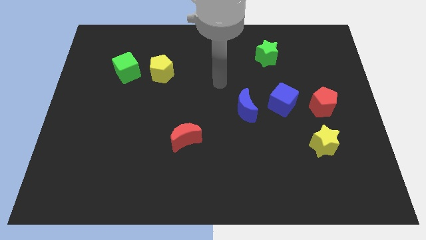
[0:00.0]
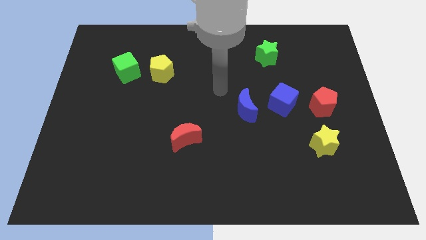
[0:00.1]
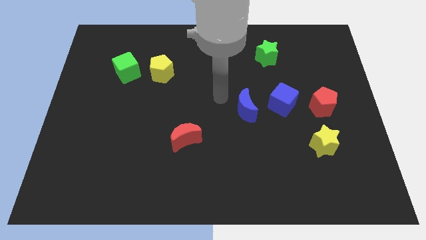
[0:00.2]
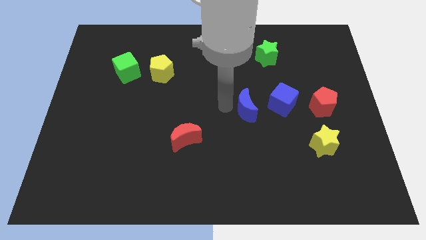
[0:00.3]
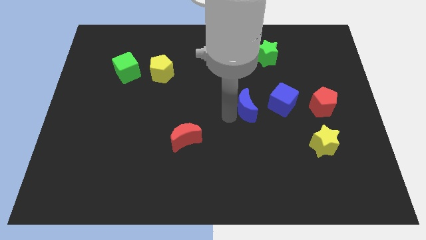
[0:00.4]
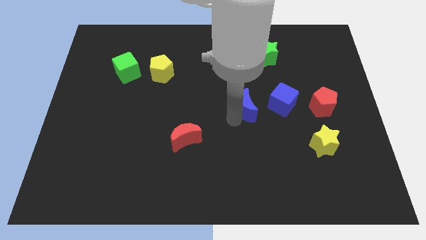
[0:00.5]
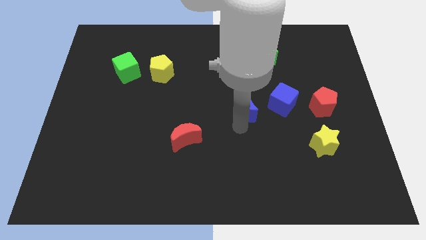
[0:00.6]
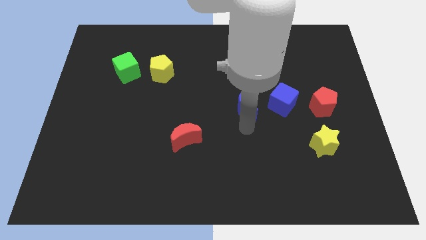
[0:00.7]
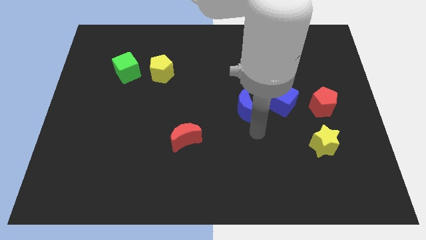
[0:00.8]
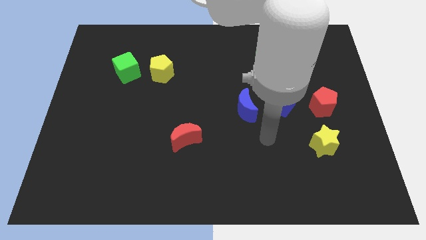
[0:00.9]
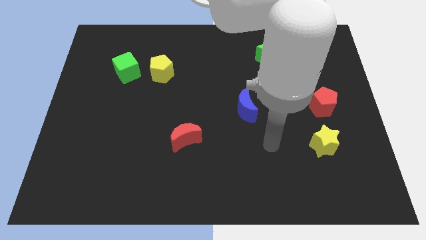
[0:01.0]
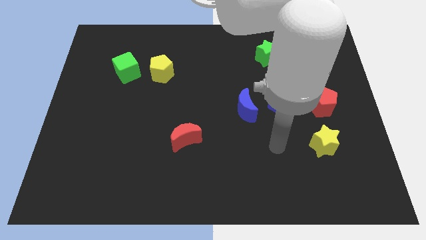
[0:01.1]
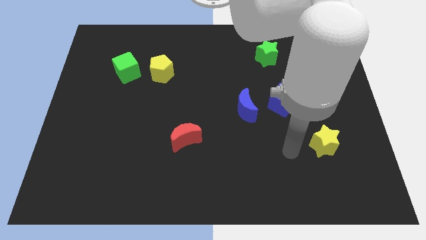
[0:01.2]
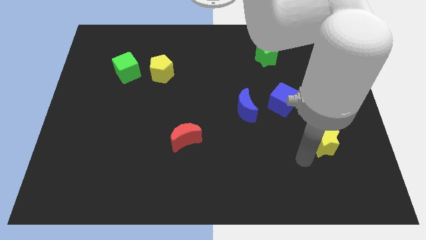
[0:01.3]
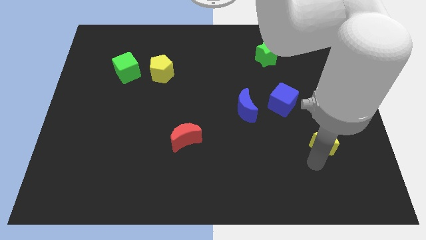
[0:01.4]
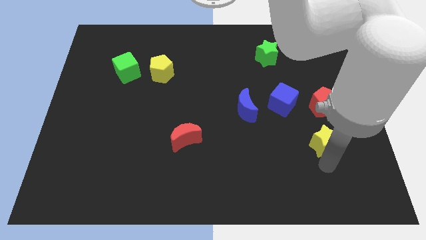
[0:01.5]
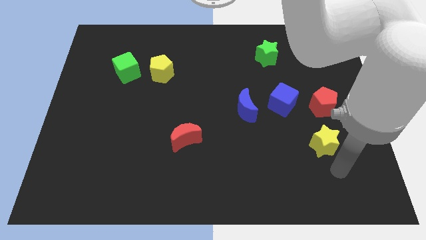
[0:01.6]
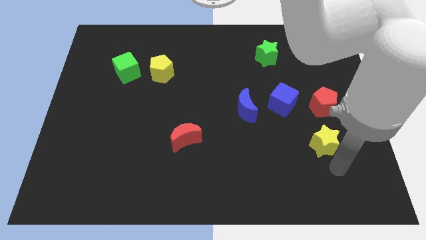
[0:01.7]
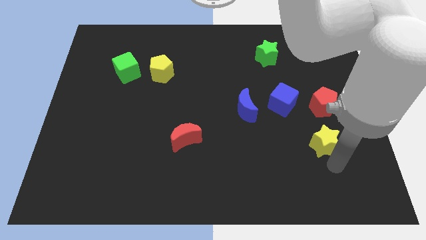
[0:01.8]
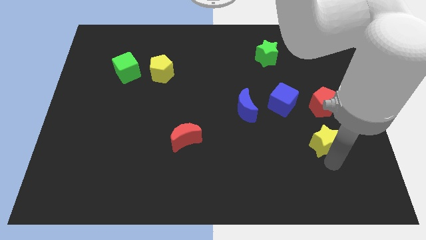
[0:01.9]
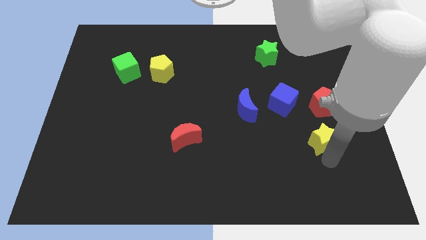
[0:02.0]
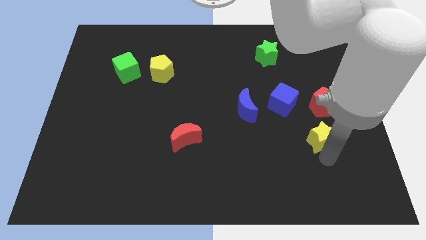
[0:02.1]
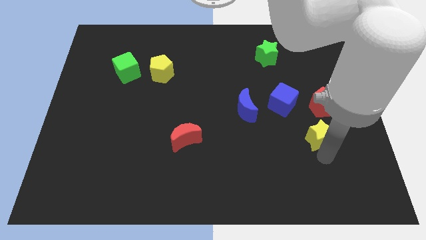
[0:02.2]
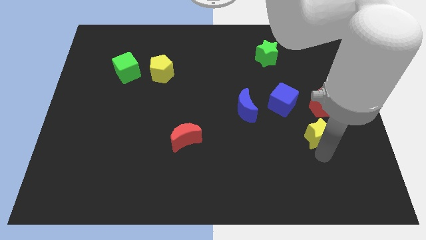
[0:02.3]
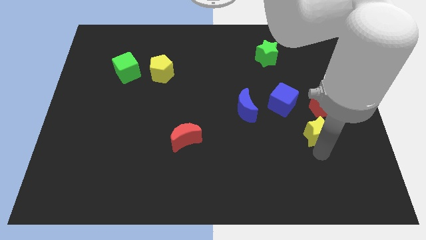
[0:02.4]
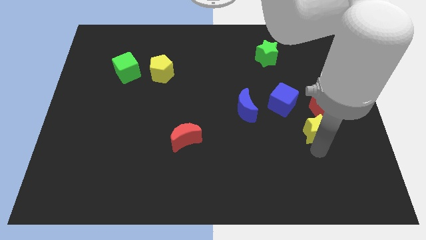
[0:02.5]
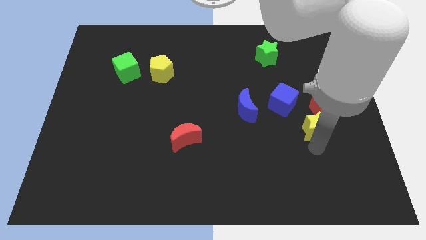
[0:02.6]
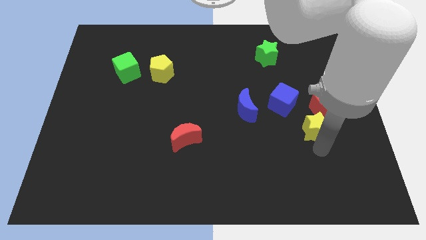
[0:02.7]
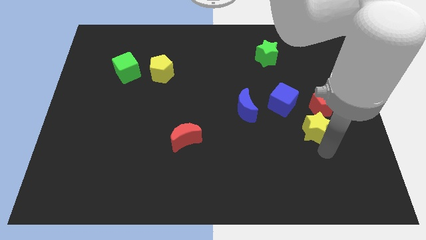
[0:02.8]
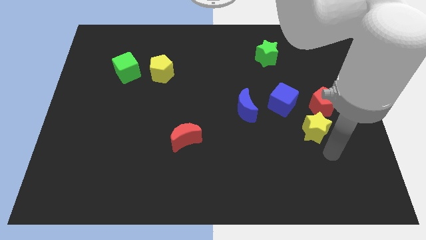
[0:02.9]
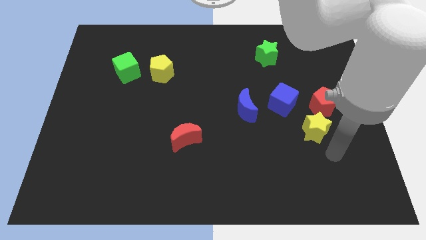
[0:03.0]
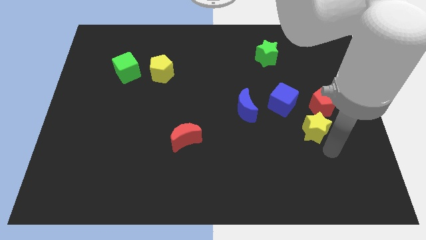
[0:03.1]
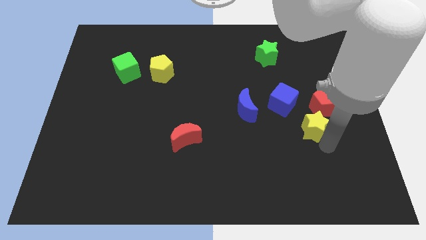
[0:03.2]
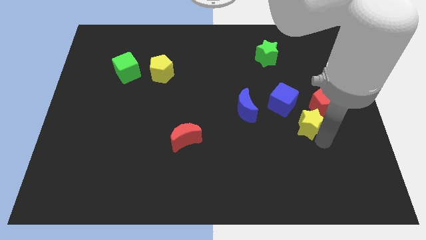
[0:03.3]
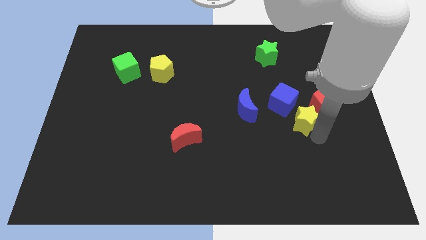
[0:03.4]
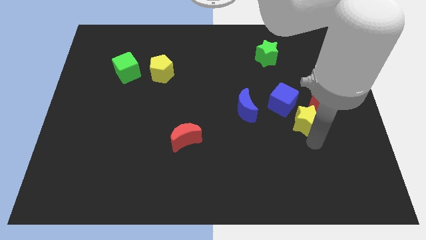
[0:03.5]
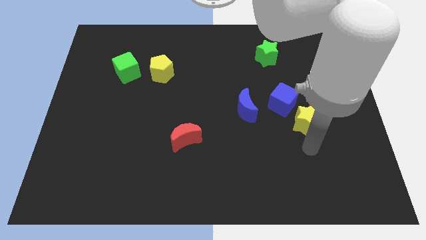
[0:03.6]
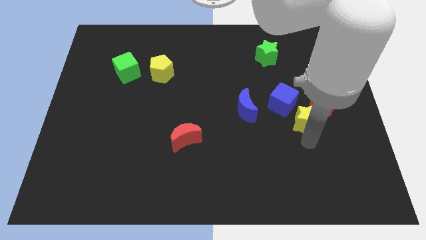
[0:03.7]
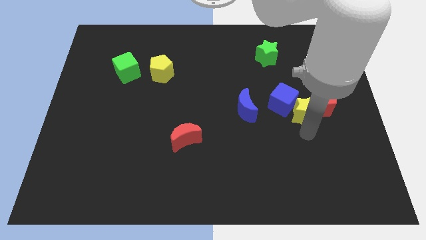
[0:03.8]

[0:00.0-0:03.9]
move the yellow star a little bit up

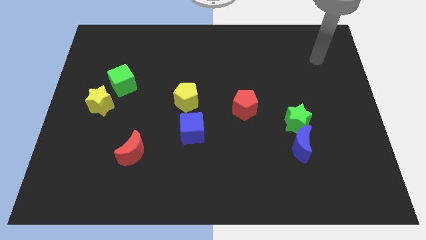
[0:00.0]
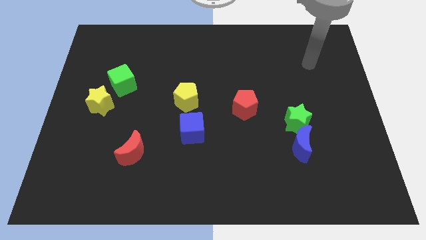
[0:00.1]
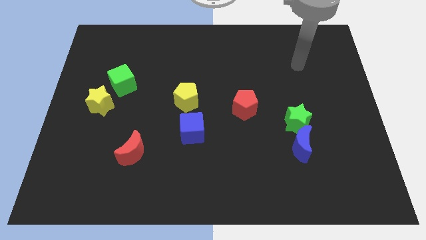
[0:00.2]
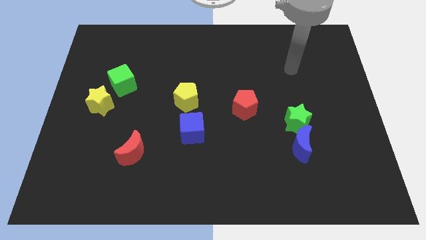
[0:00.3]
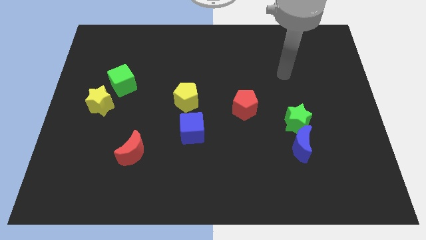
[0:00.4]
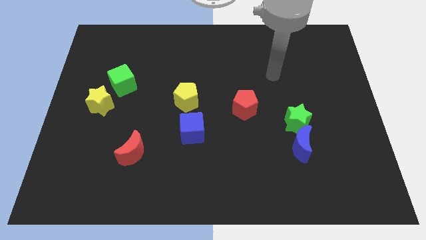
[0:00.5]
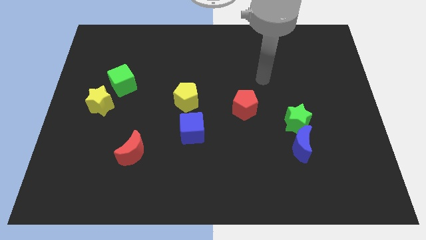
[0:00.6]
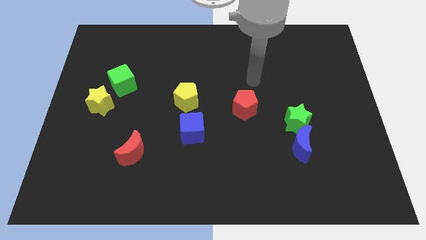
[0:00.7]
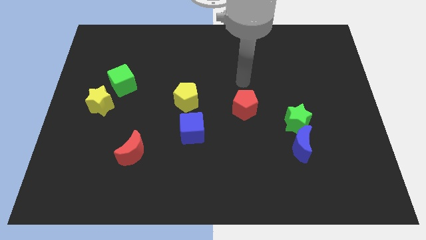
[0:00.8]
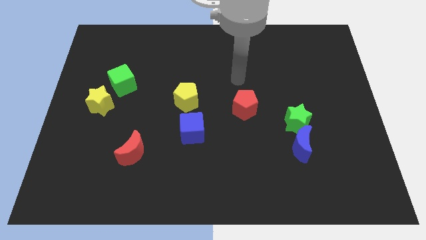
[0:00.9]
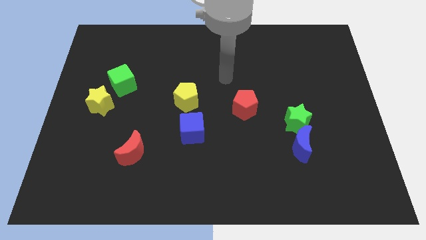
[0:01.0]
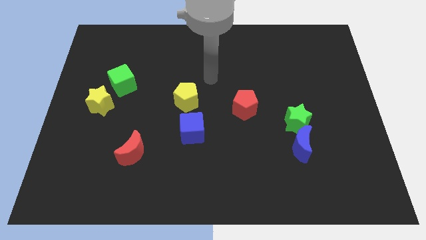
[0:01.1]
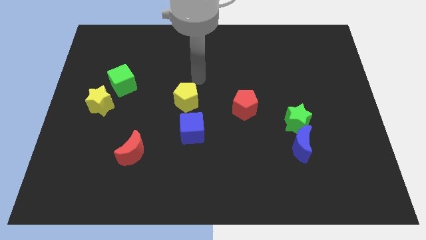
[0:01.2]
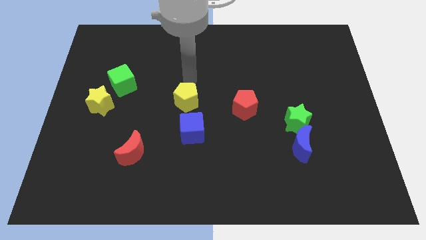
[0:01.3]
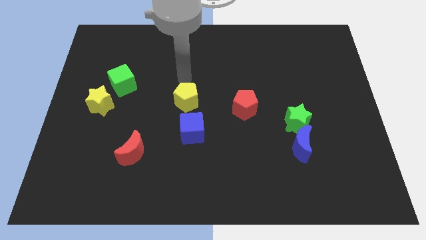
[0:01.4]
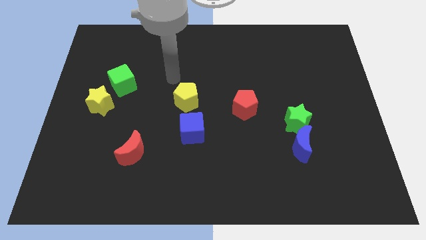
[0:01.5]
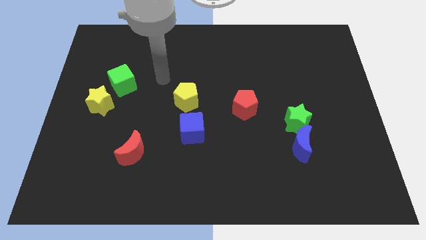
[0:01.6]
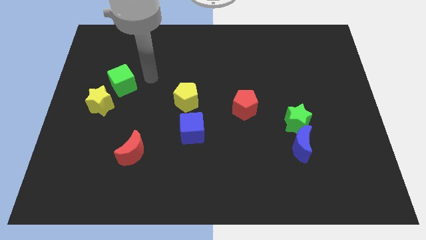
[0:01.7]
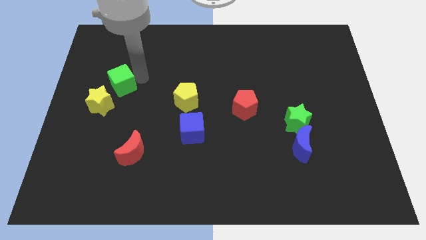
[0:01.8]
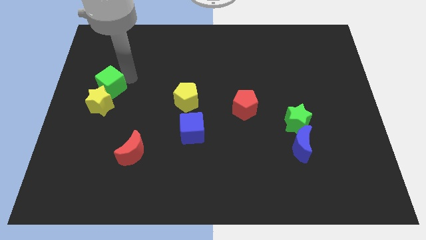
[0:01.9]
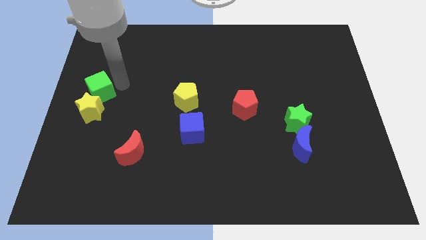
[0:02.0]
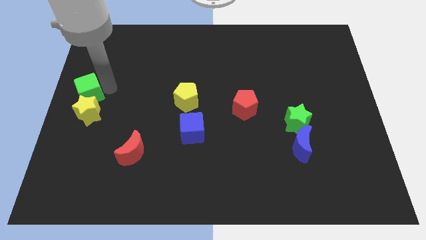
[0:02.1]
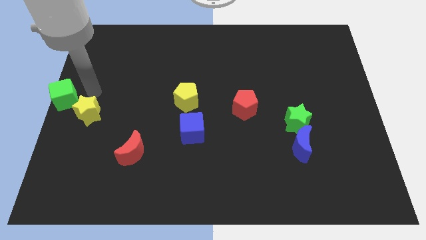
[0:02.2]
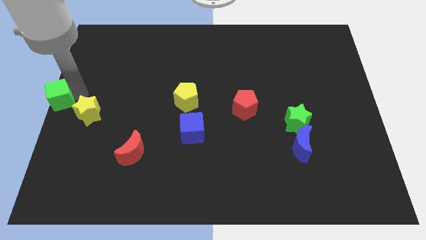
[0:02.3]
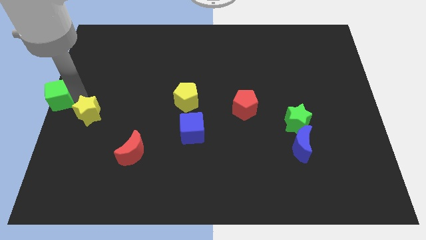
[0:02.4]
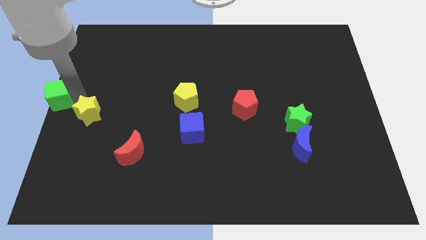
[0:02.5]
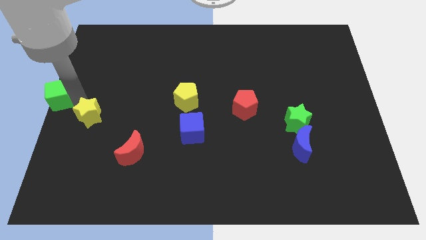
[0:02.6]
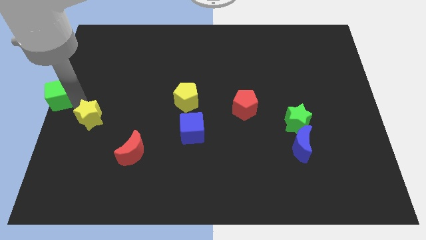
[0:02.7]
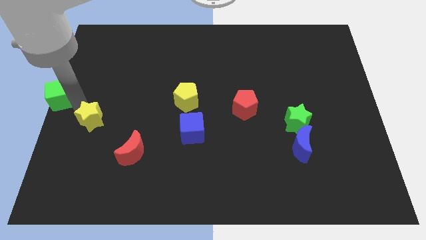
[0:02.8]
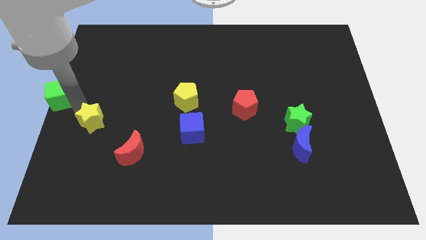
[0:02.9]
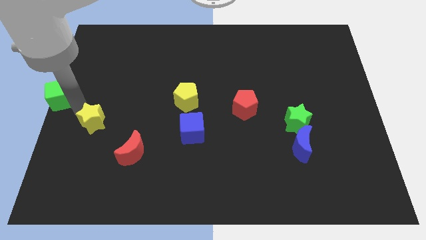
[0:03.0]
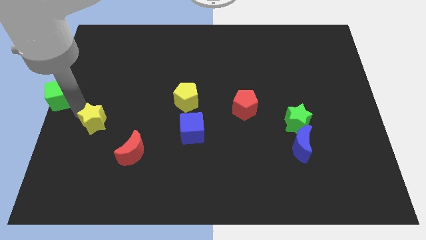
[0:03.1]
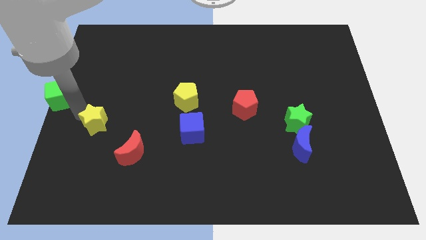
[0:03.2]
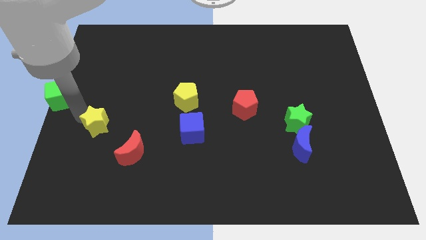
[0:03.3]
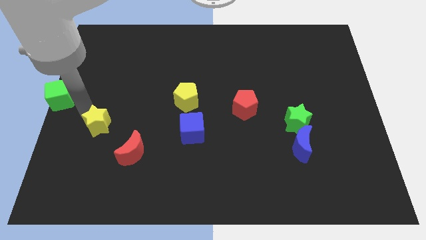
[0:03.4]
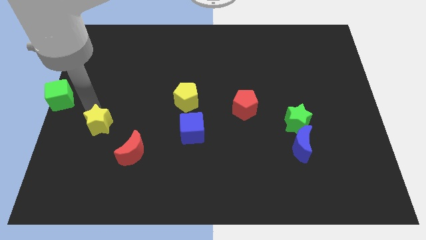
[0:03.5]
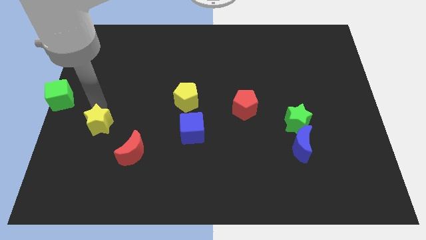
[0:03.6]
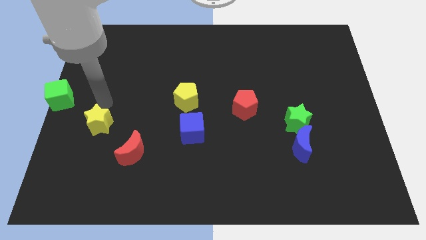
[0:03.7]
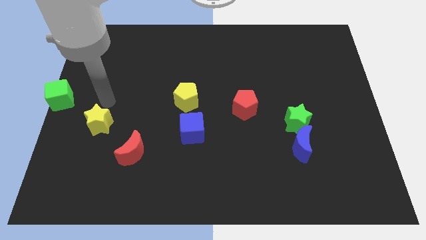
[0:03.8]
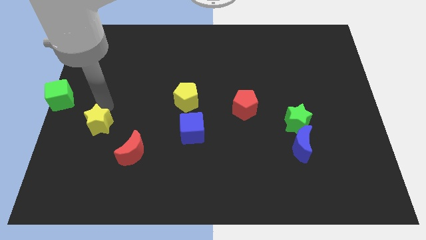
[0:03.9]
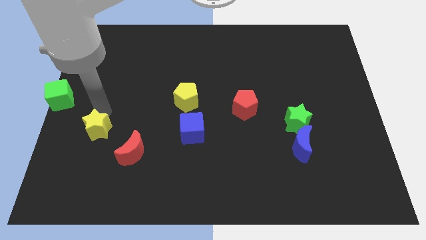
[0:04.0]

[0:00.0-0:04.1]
slide the yellow star slightly down
